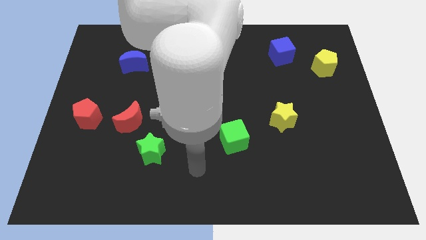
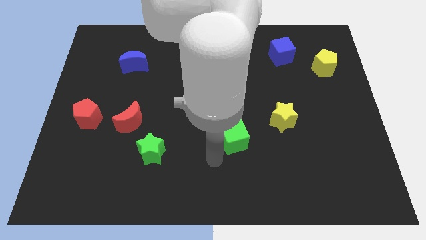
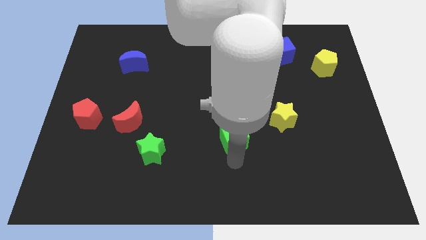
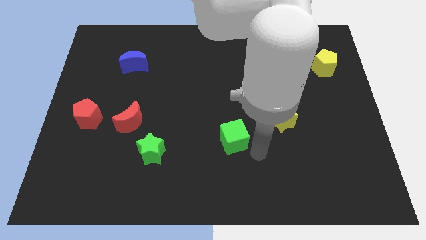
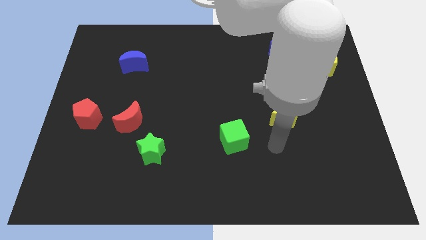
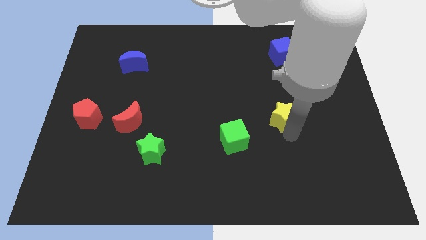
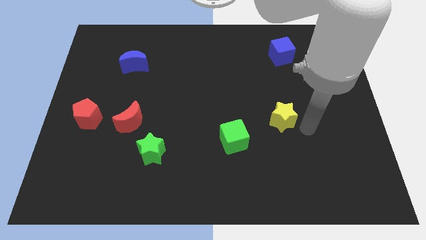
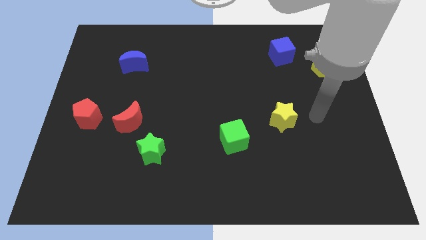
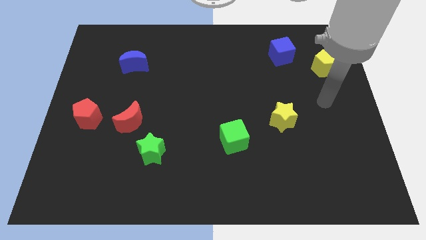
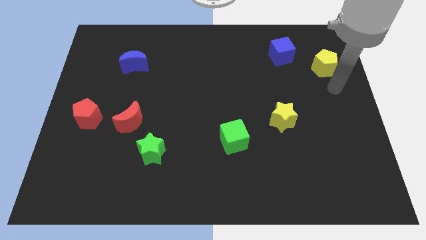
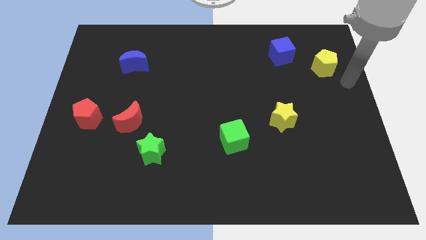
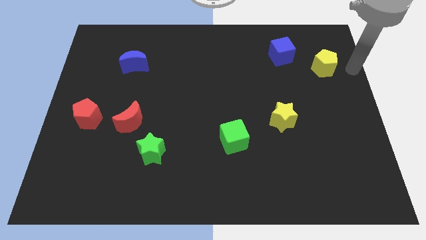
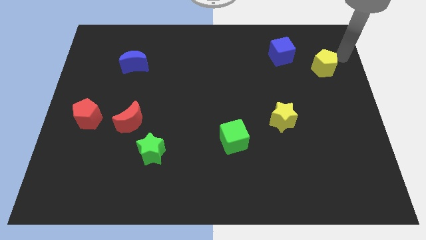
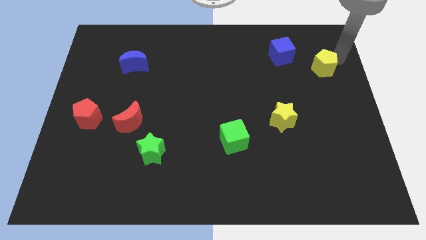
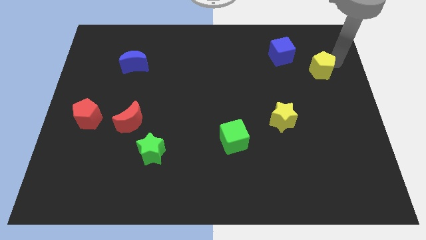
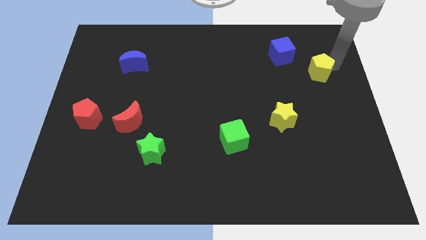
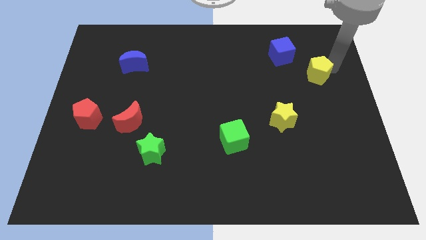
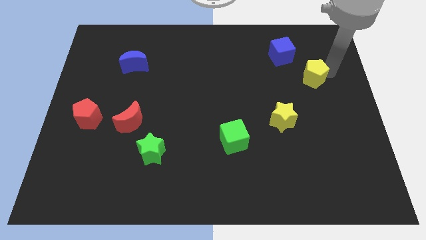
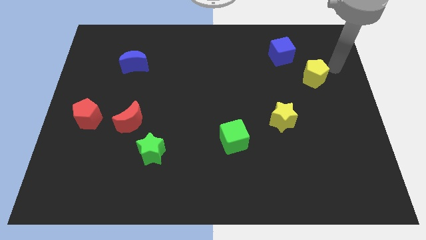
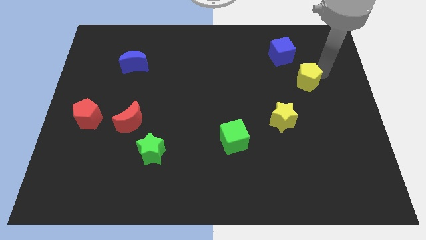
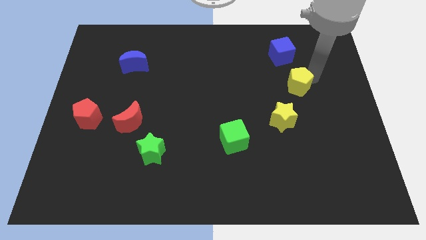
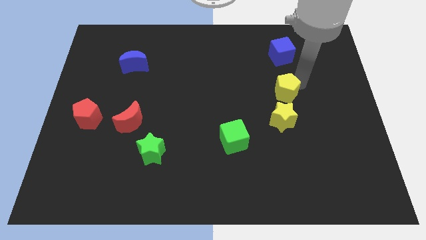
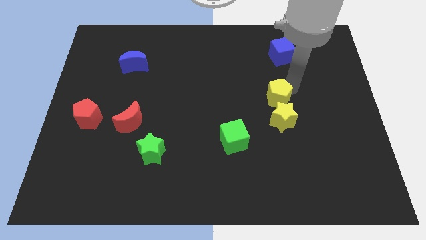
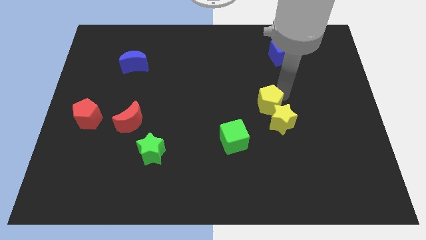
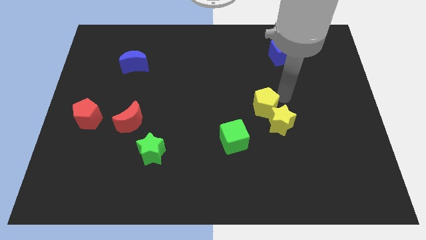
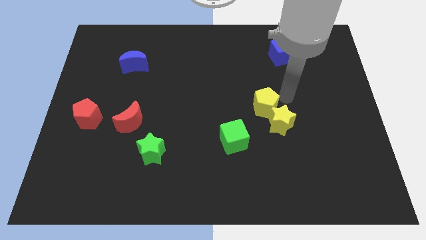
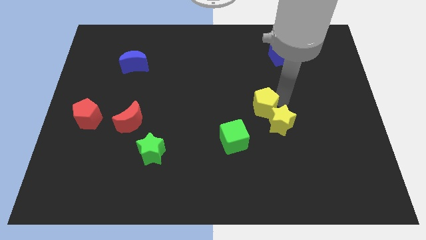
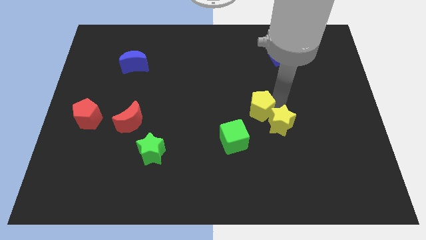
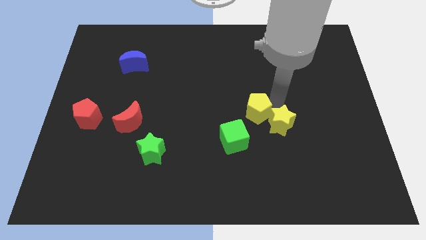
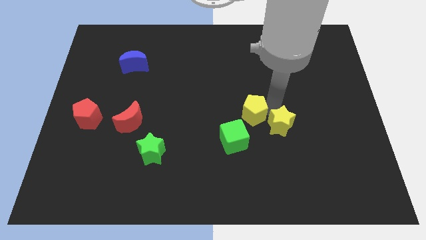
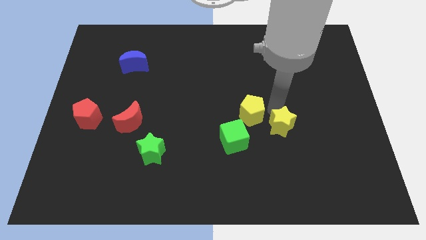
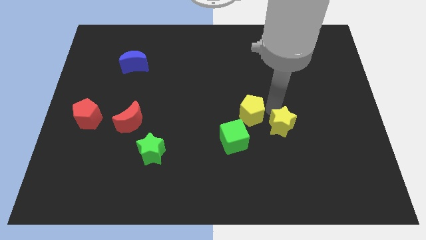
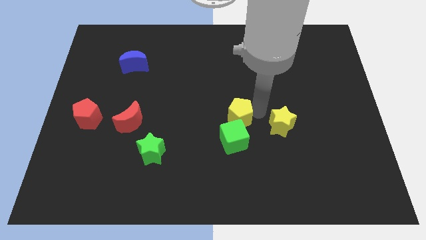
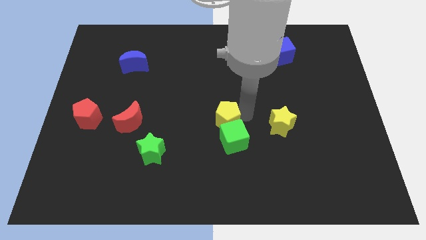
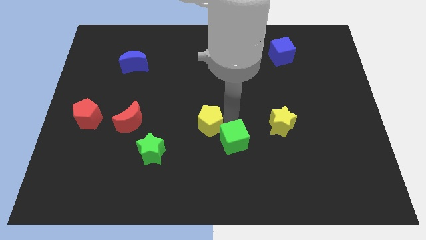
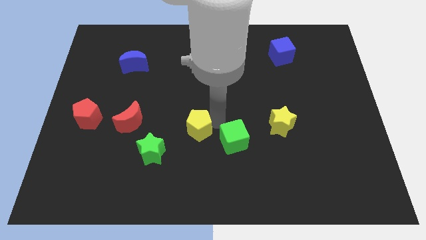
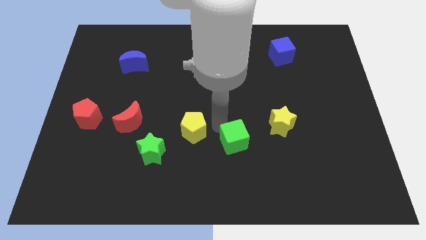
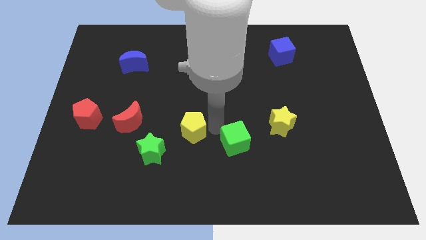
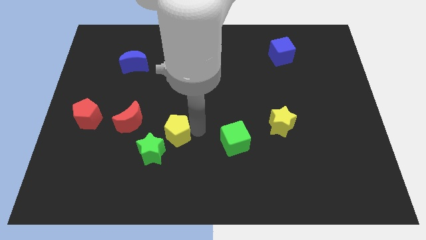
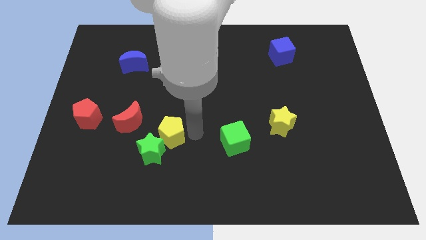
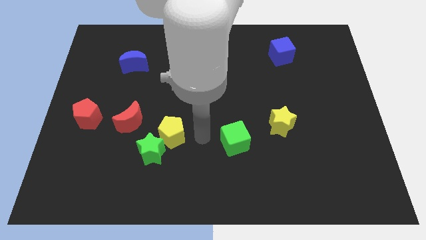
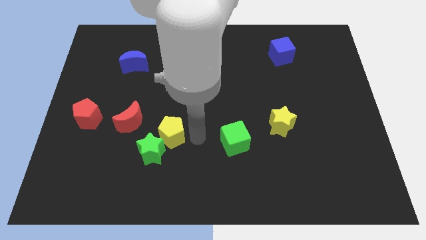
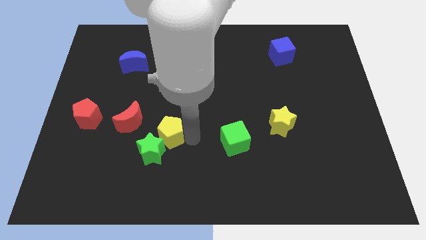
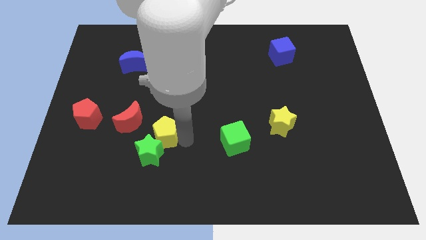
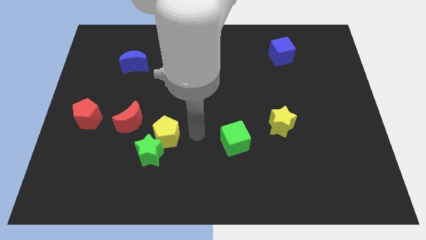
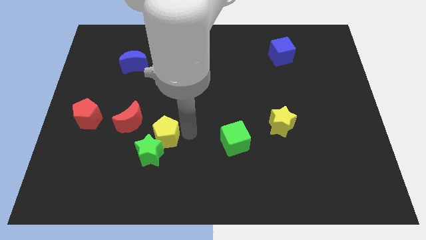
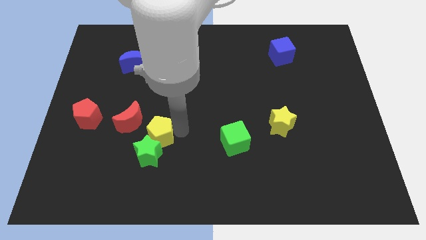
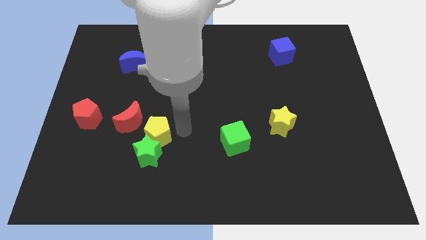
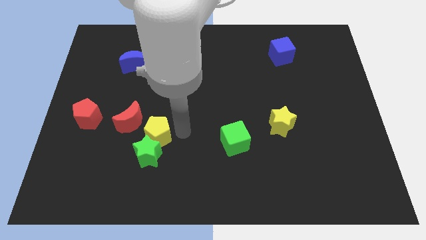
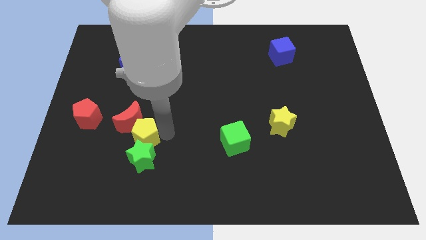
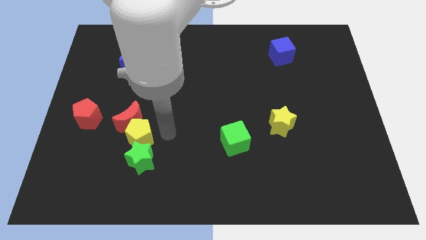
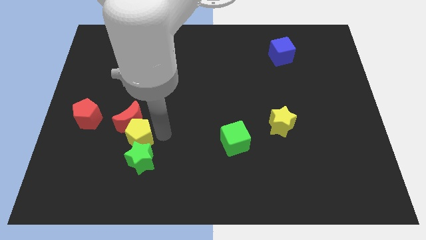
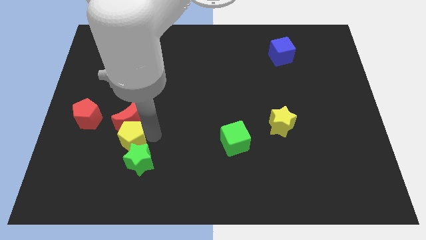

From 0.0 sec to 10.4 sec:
push the yellow pentagon to the bottom left of the red moon

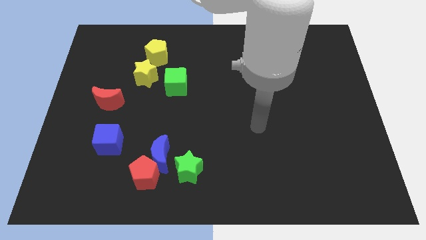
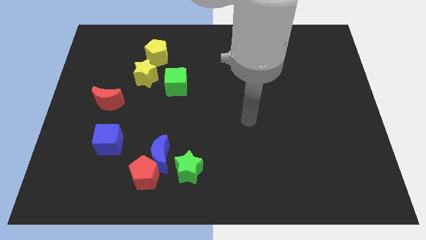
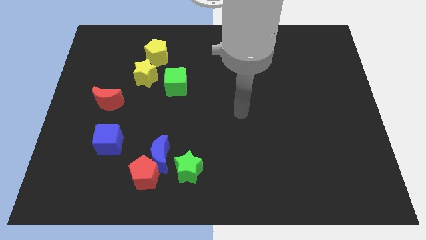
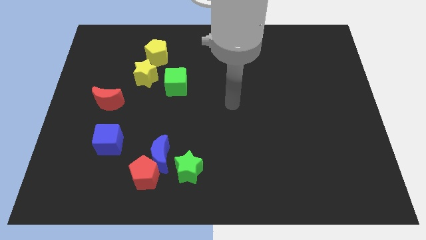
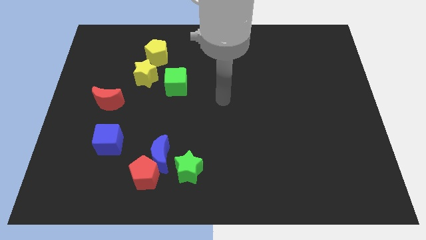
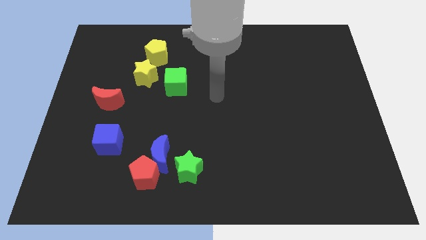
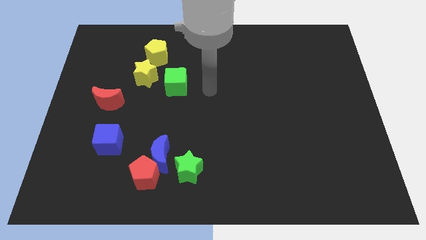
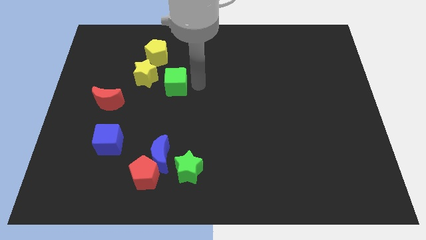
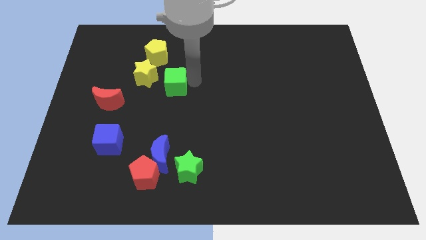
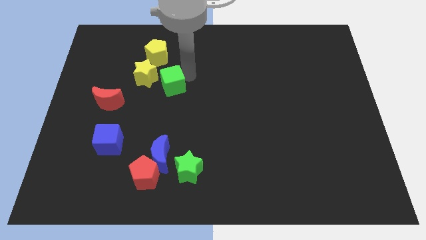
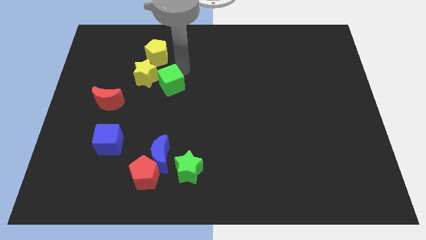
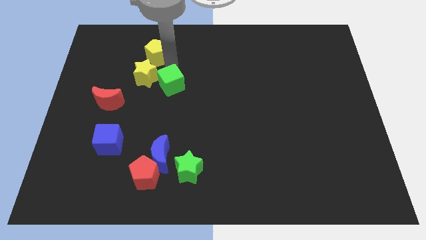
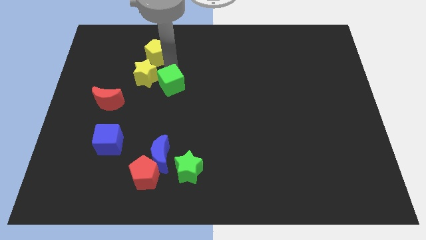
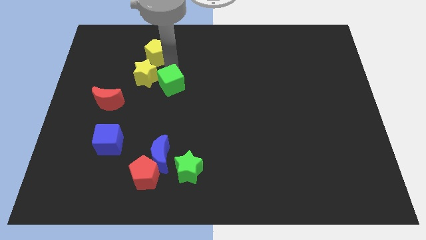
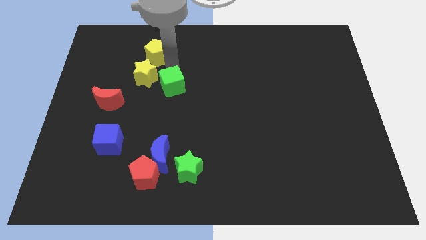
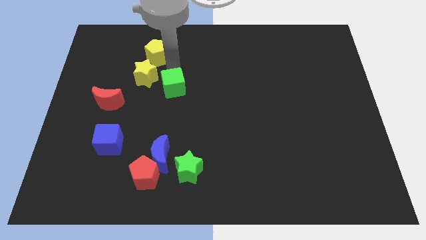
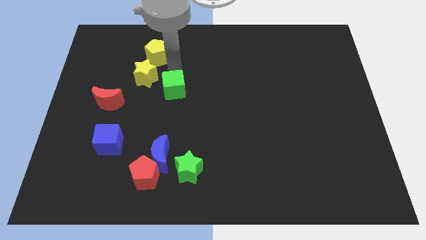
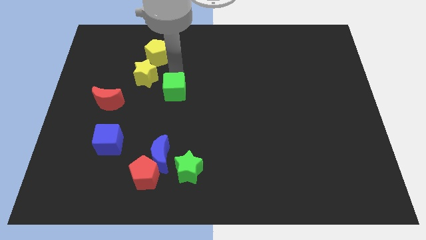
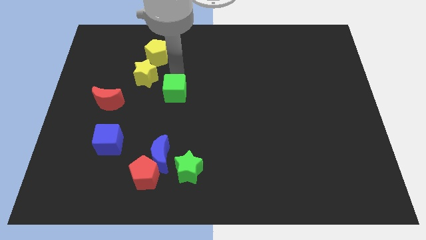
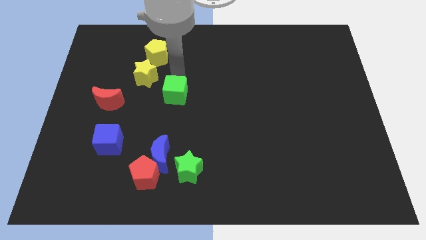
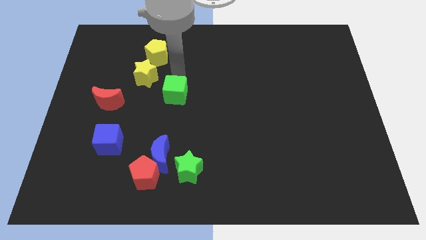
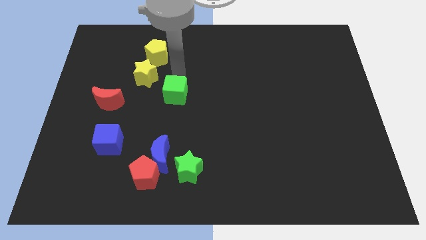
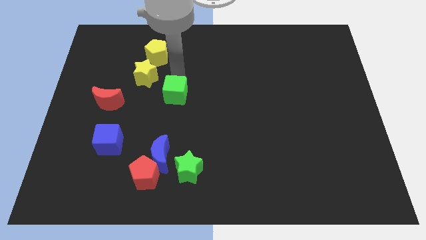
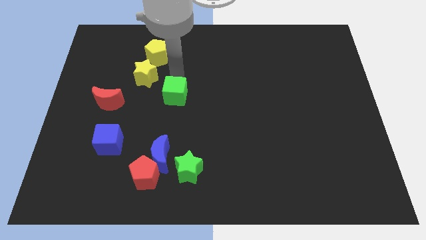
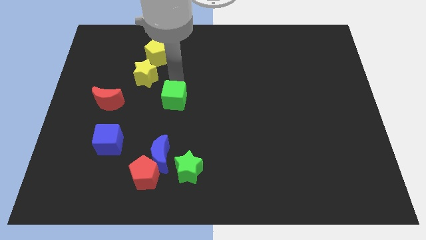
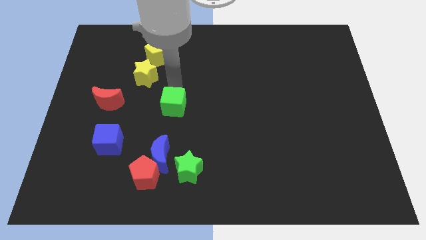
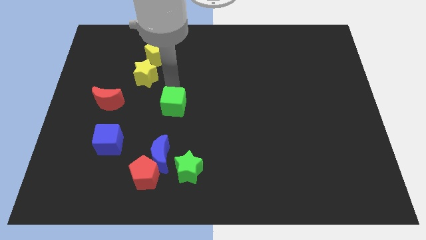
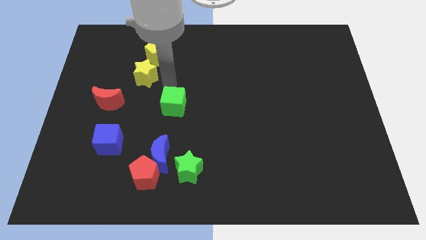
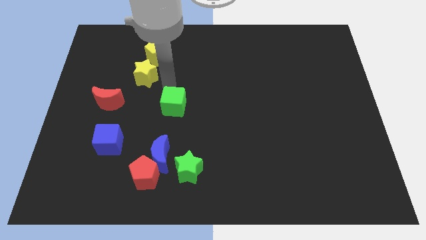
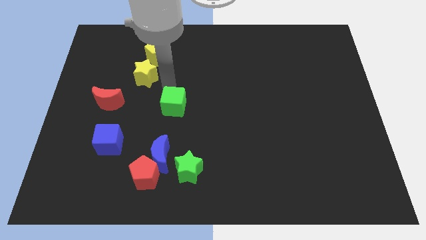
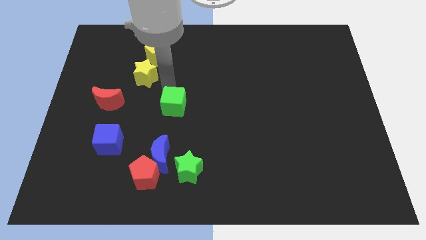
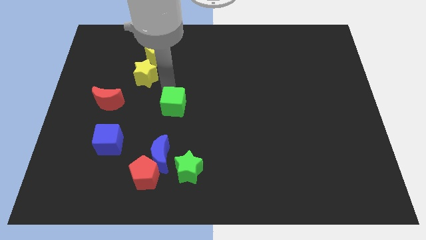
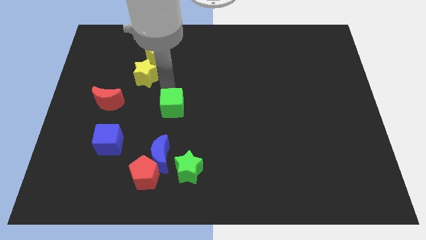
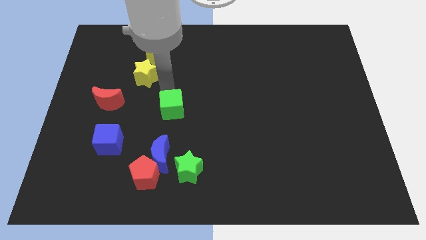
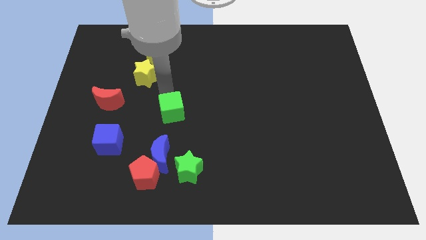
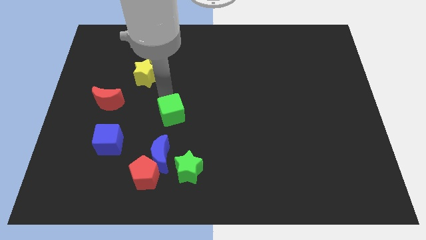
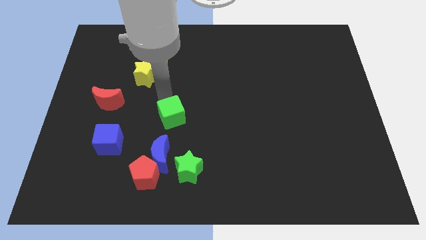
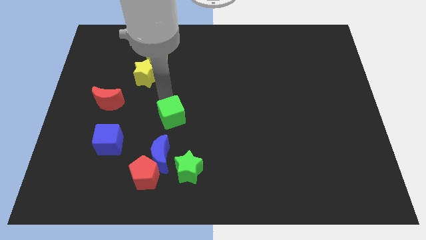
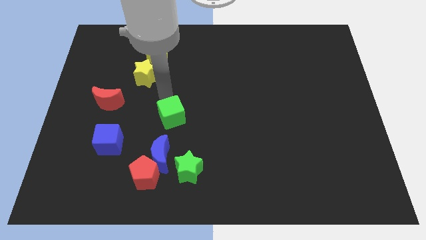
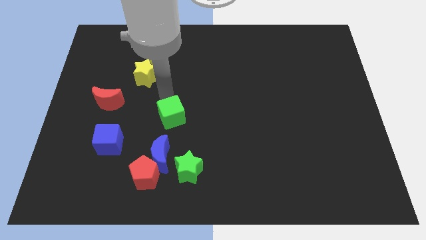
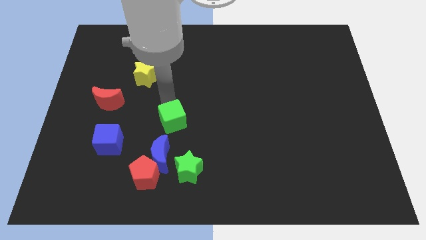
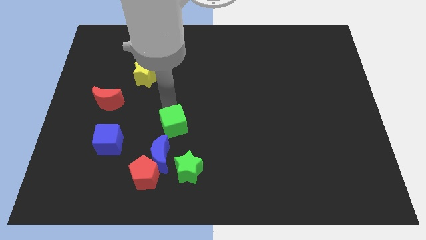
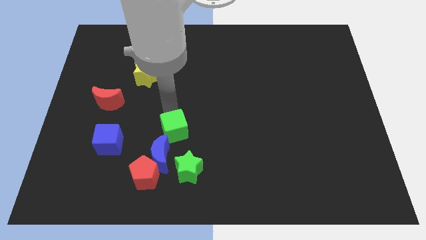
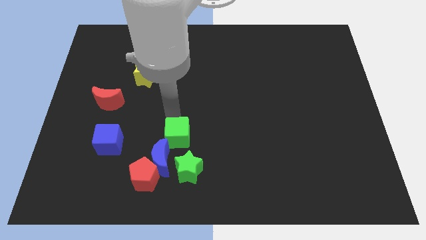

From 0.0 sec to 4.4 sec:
slide the green cube diagonally up and to the right of the red pentagon
